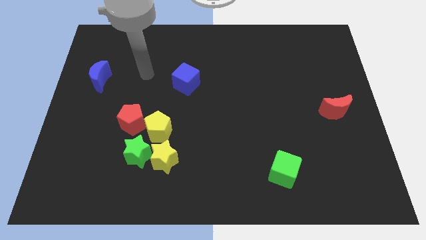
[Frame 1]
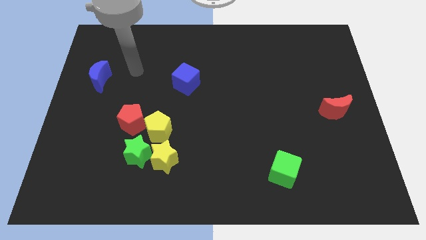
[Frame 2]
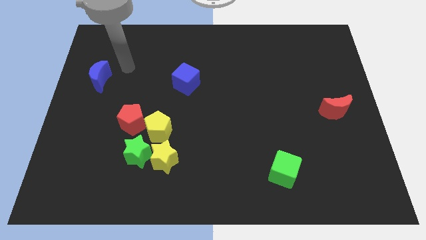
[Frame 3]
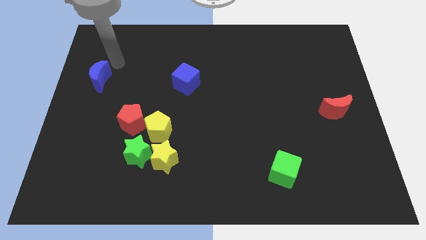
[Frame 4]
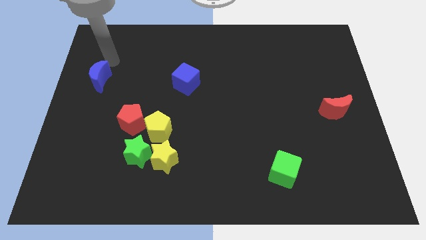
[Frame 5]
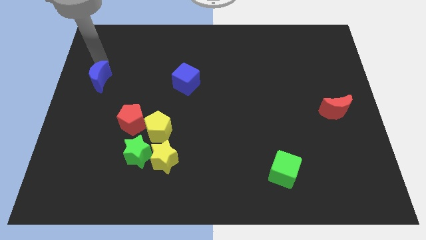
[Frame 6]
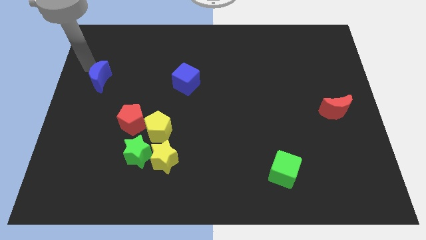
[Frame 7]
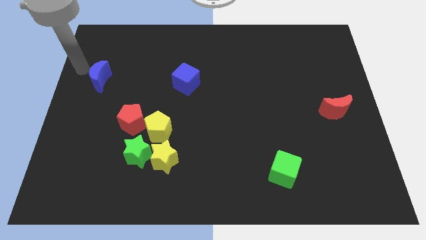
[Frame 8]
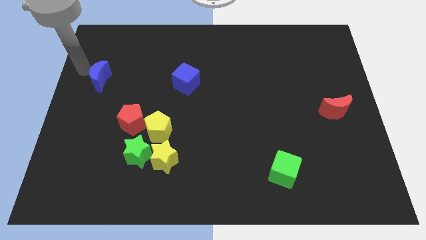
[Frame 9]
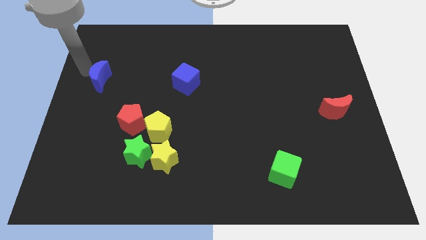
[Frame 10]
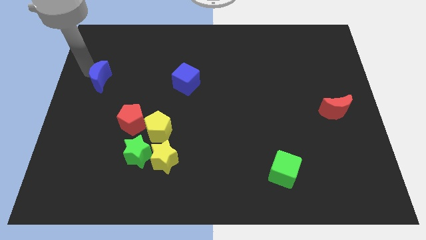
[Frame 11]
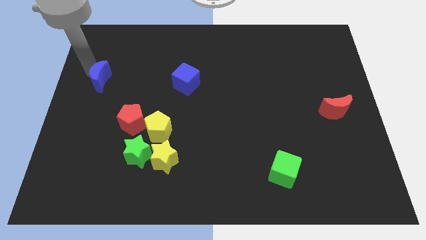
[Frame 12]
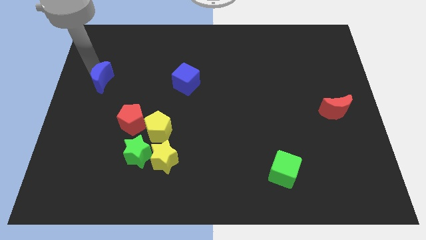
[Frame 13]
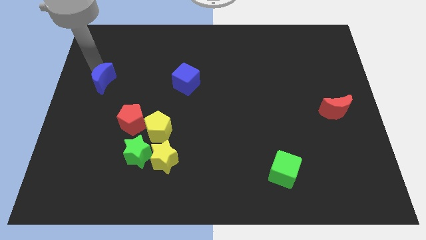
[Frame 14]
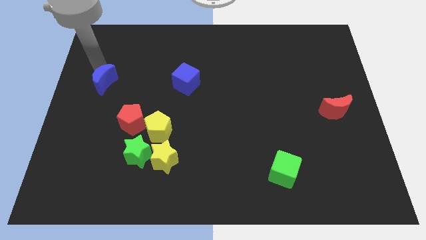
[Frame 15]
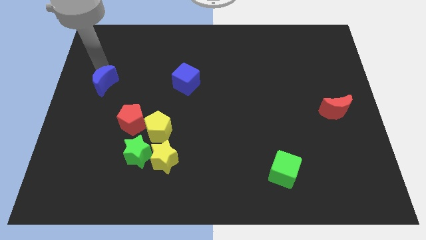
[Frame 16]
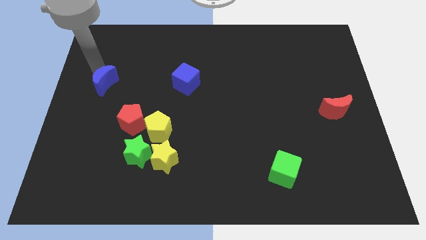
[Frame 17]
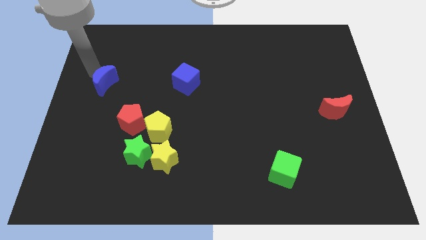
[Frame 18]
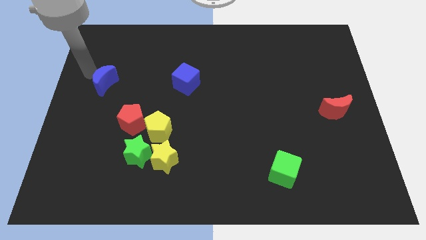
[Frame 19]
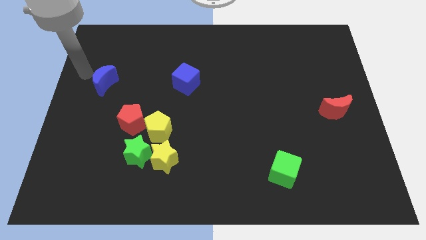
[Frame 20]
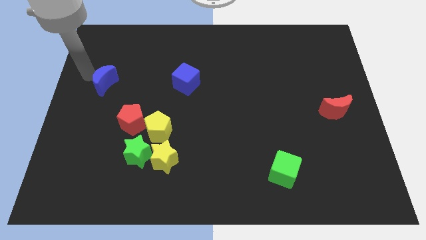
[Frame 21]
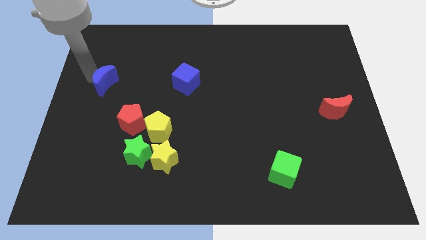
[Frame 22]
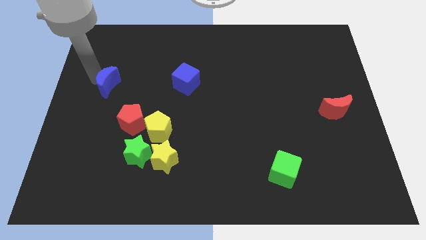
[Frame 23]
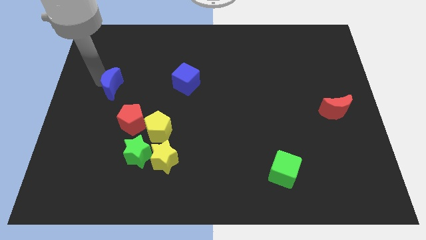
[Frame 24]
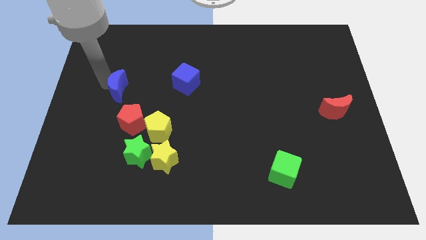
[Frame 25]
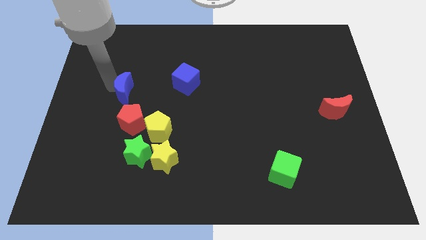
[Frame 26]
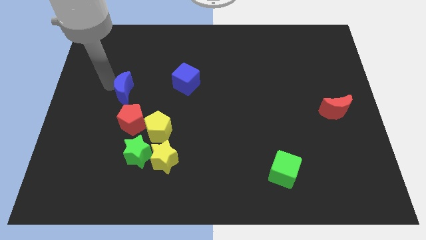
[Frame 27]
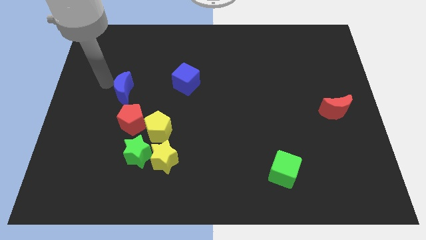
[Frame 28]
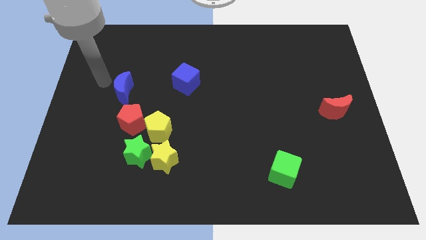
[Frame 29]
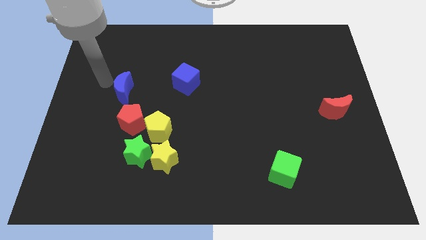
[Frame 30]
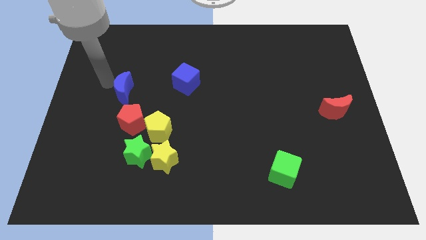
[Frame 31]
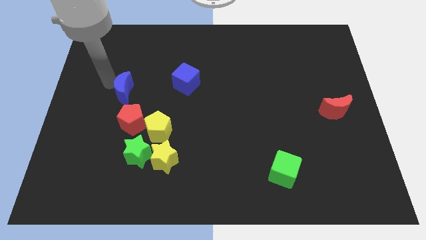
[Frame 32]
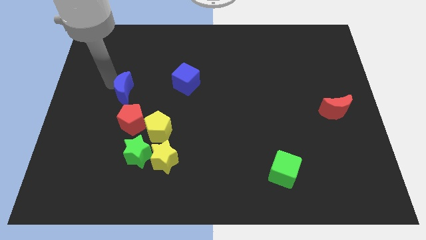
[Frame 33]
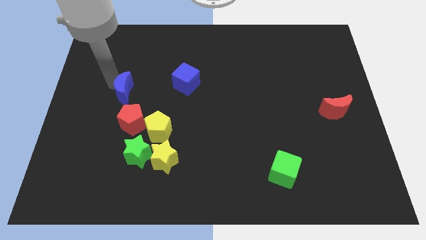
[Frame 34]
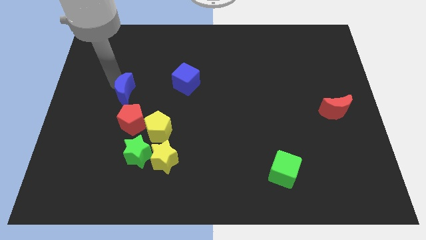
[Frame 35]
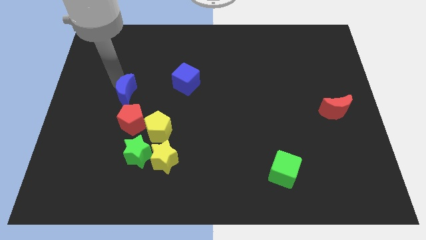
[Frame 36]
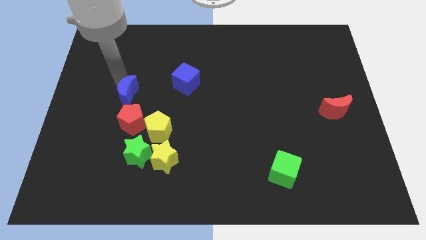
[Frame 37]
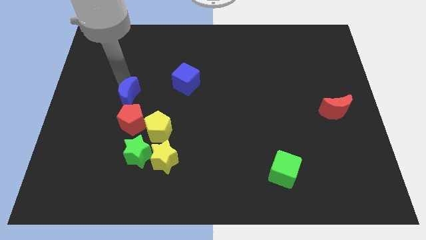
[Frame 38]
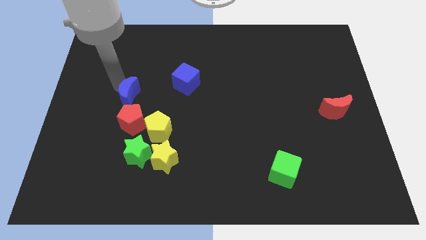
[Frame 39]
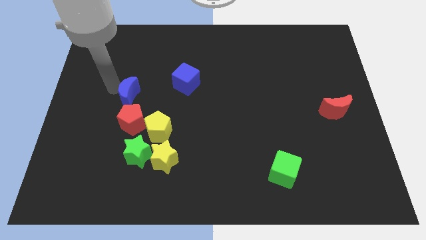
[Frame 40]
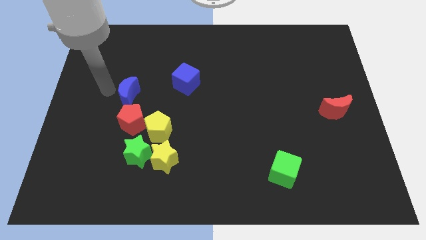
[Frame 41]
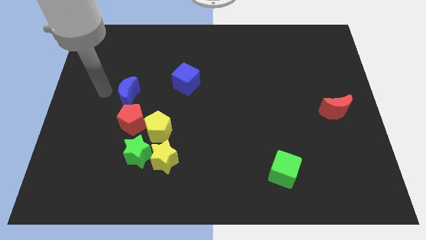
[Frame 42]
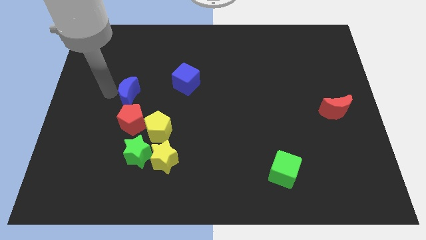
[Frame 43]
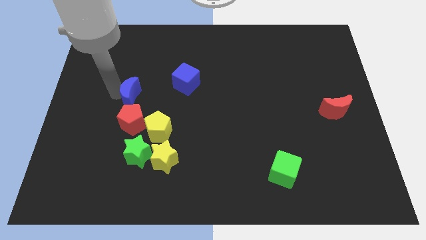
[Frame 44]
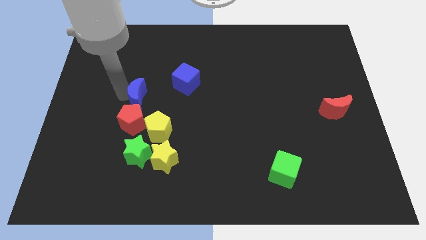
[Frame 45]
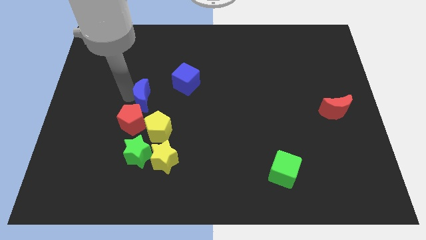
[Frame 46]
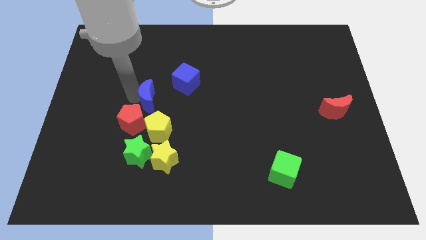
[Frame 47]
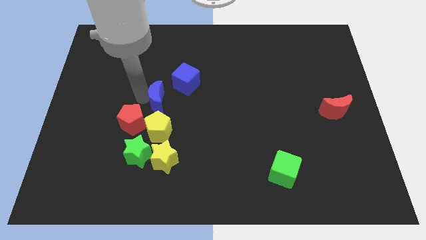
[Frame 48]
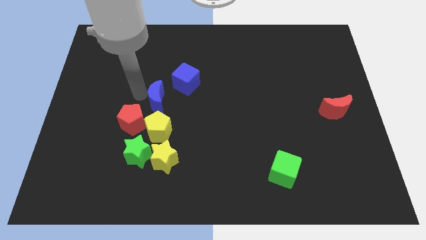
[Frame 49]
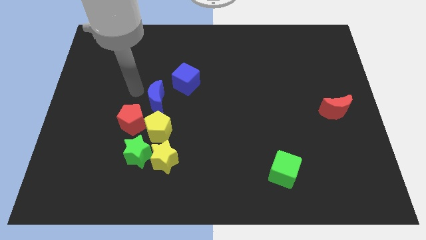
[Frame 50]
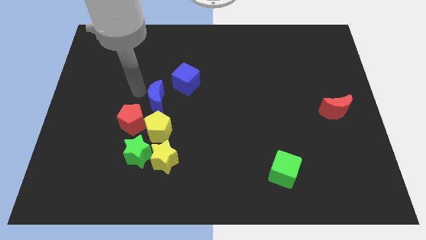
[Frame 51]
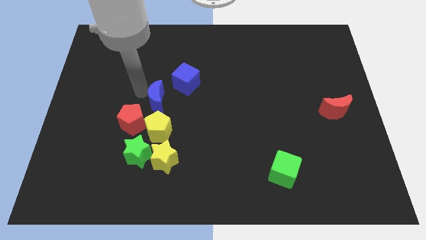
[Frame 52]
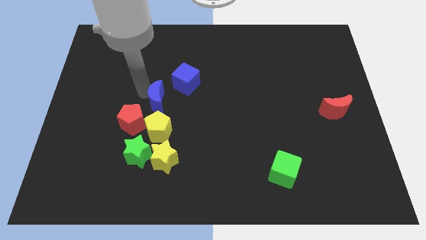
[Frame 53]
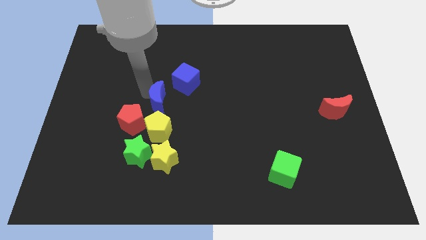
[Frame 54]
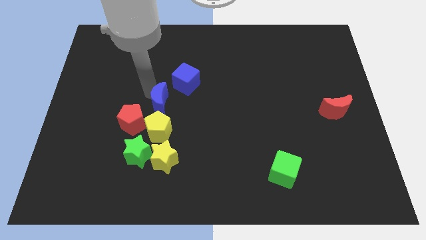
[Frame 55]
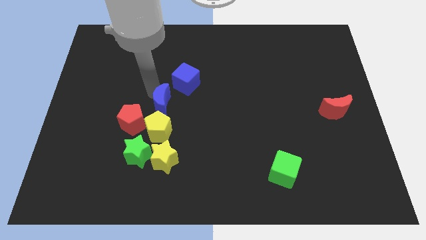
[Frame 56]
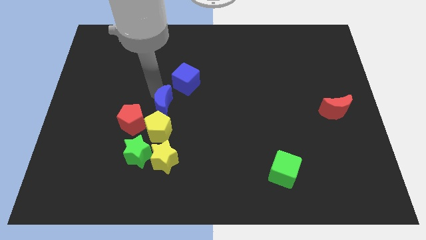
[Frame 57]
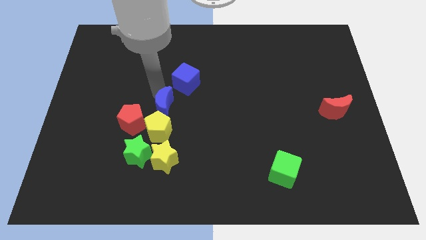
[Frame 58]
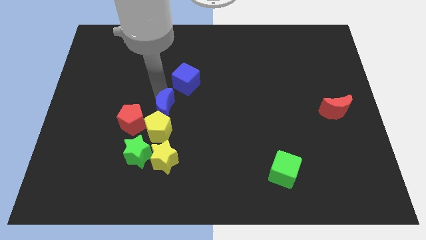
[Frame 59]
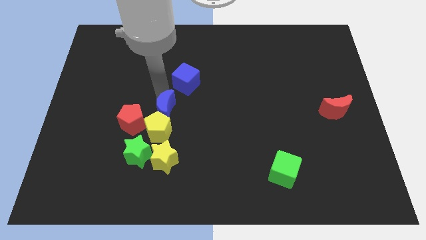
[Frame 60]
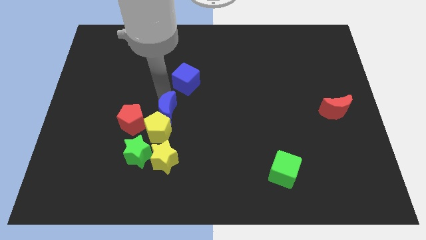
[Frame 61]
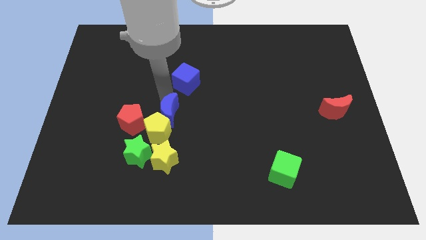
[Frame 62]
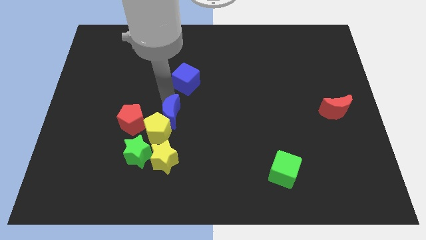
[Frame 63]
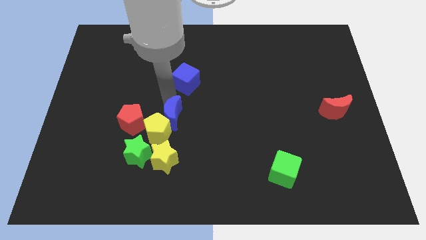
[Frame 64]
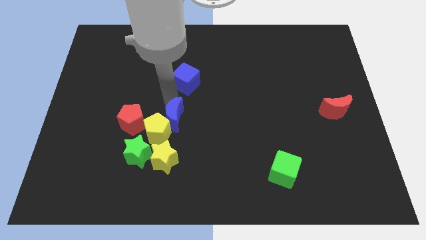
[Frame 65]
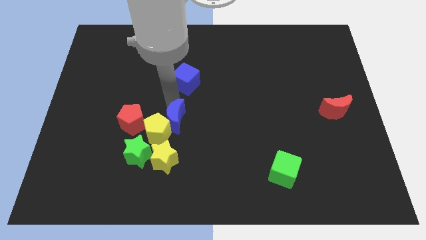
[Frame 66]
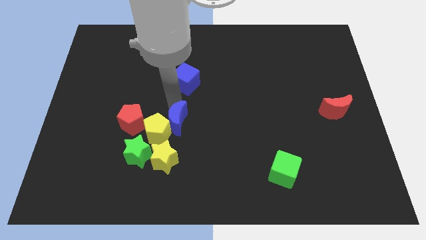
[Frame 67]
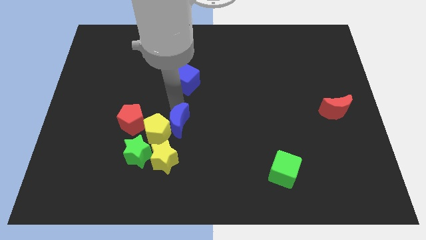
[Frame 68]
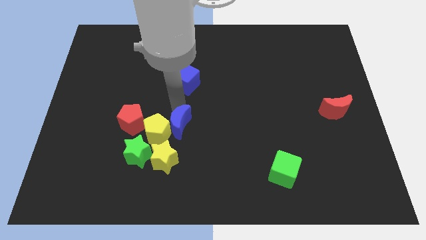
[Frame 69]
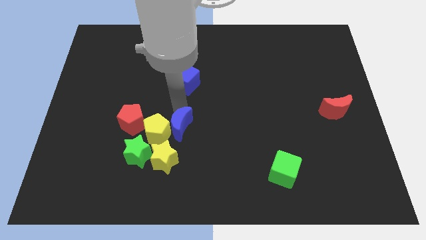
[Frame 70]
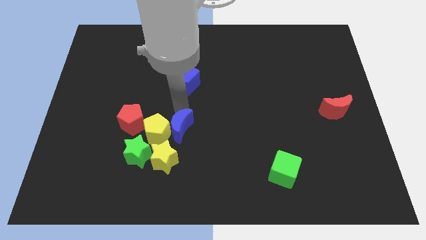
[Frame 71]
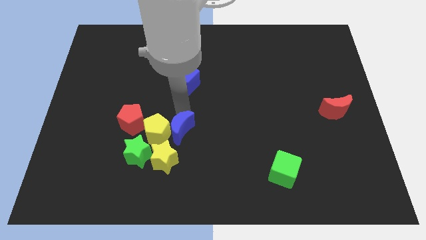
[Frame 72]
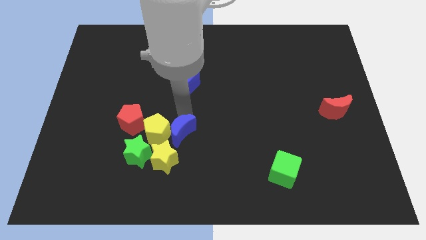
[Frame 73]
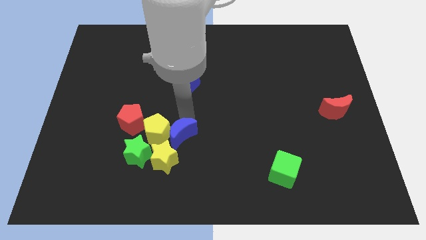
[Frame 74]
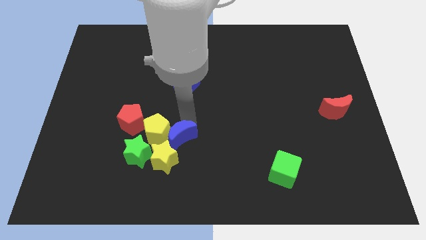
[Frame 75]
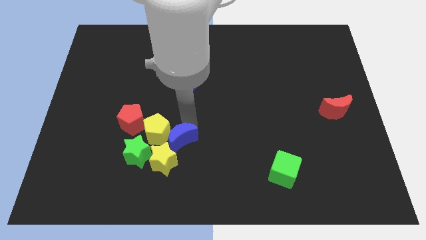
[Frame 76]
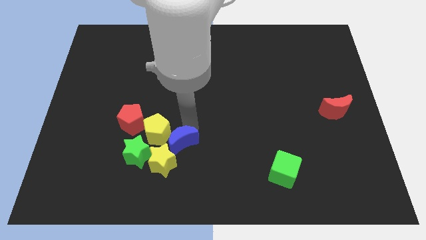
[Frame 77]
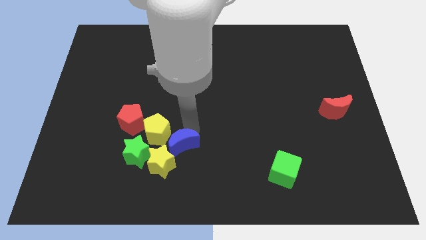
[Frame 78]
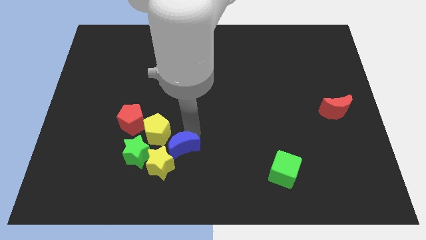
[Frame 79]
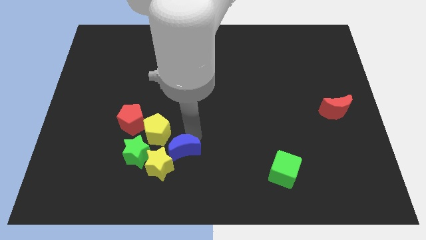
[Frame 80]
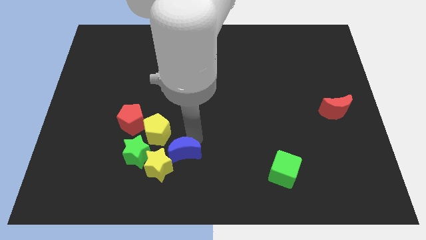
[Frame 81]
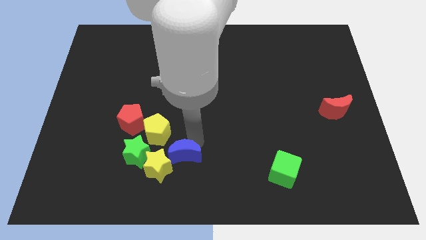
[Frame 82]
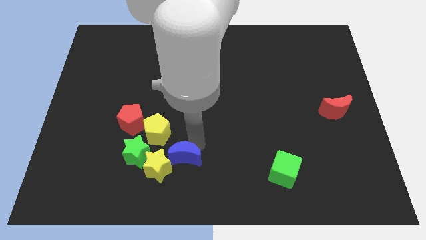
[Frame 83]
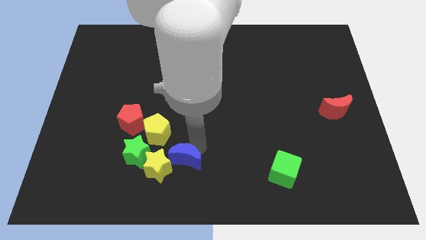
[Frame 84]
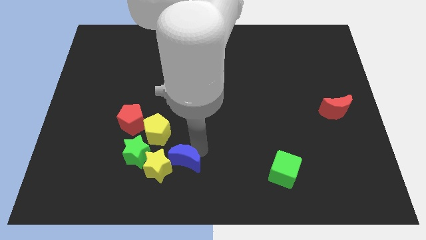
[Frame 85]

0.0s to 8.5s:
slide the blue moon next to the yellow star
